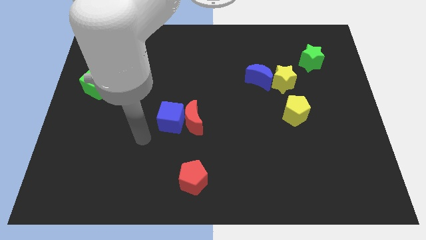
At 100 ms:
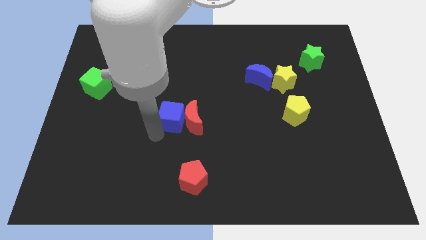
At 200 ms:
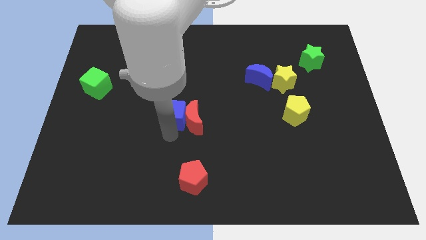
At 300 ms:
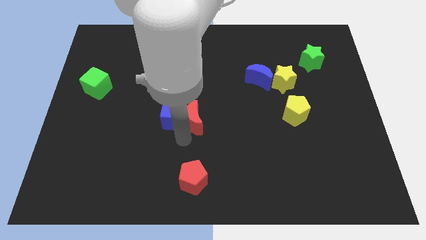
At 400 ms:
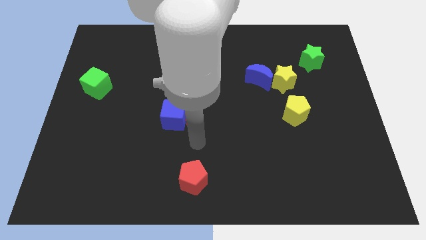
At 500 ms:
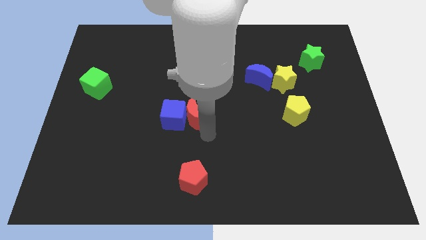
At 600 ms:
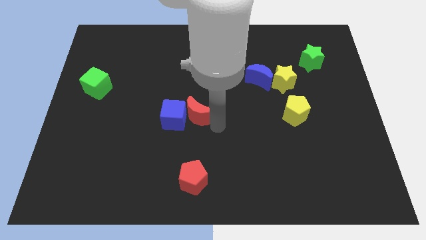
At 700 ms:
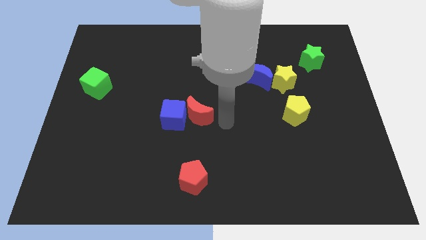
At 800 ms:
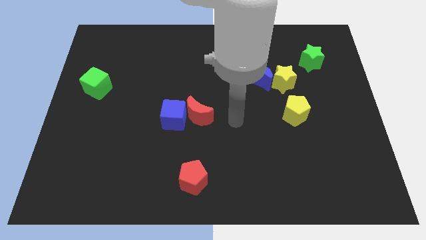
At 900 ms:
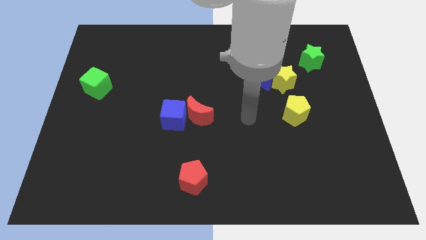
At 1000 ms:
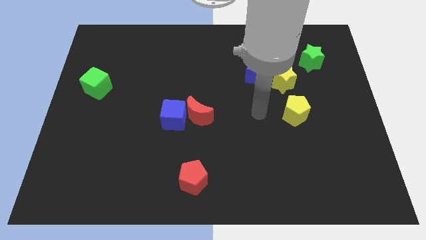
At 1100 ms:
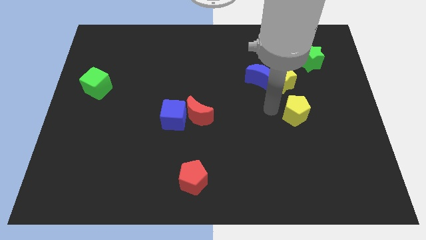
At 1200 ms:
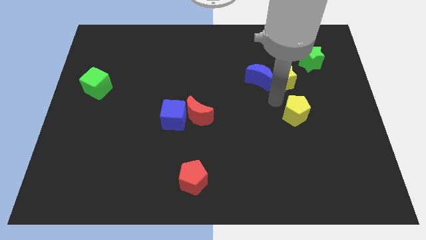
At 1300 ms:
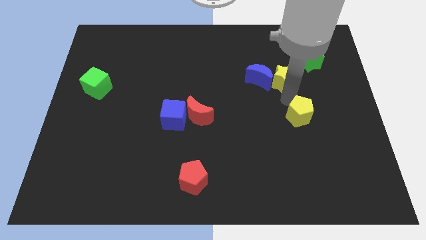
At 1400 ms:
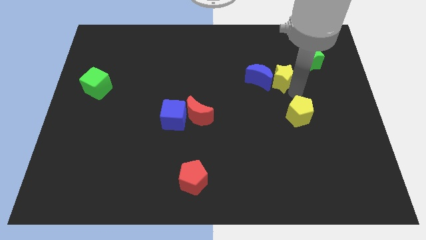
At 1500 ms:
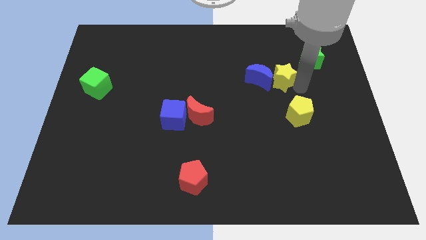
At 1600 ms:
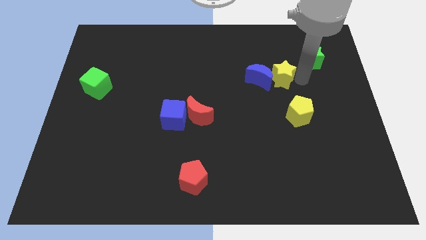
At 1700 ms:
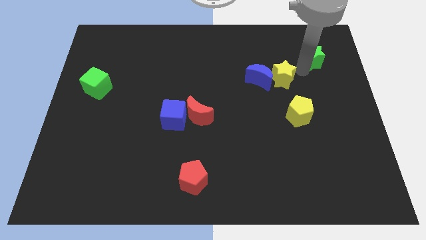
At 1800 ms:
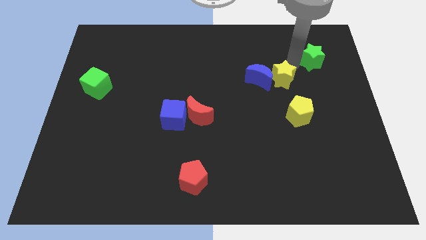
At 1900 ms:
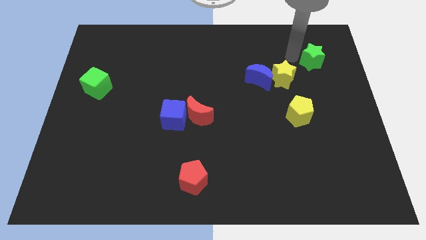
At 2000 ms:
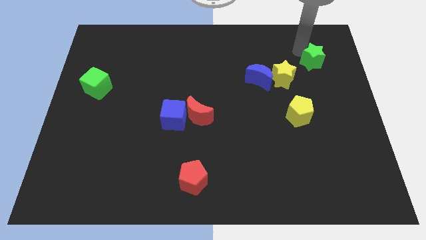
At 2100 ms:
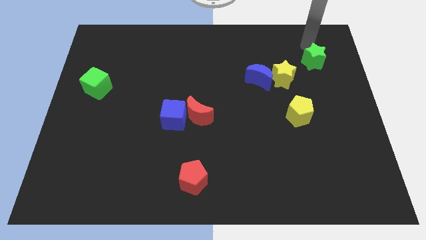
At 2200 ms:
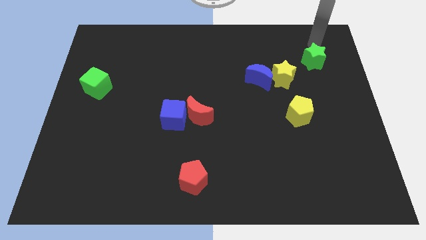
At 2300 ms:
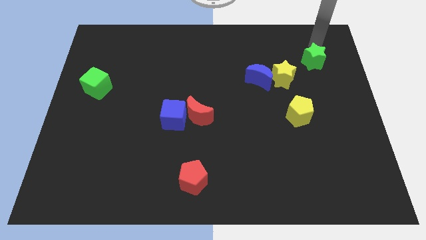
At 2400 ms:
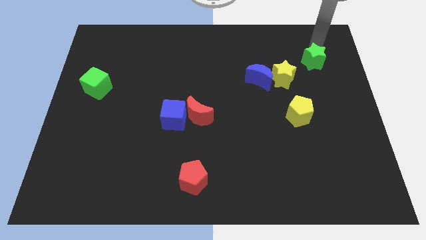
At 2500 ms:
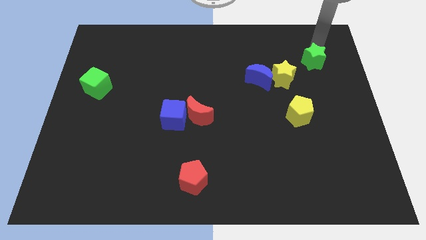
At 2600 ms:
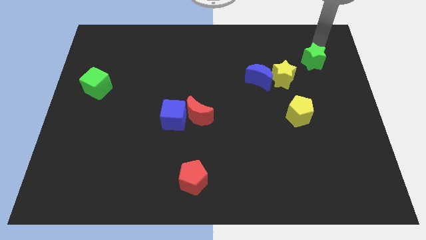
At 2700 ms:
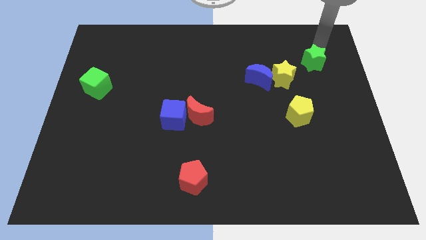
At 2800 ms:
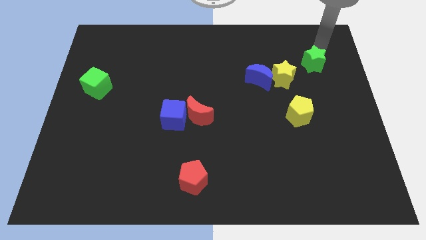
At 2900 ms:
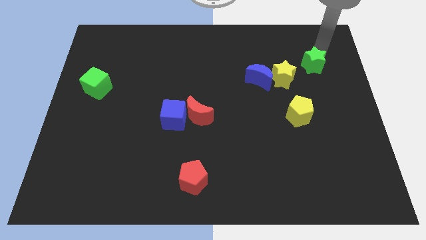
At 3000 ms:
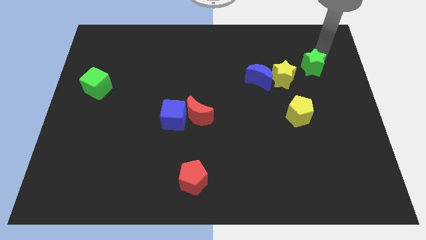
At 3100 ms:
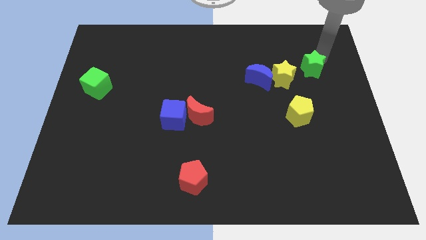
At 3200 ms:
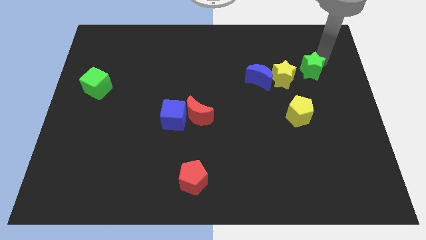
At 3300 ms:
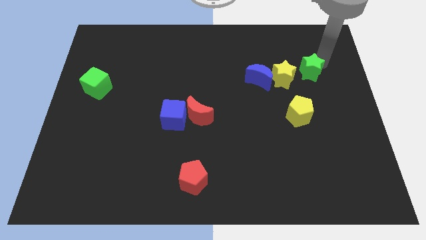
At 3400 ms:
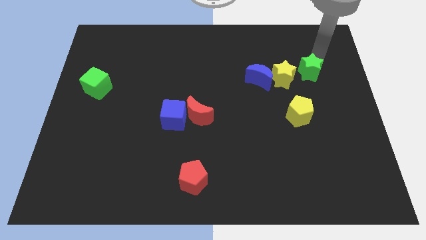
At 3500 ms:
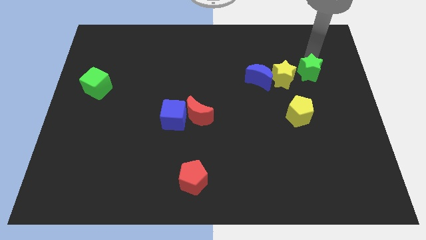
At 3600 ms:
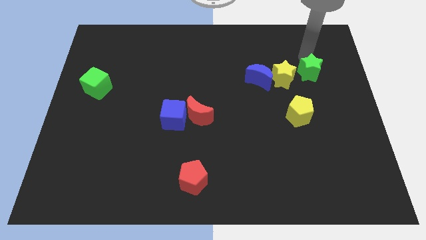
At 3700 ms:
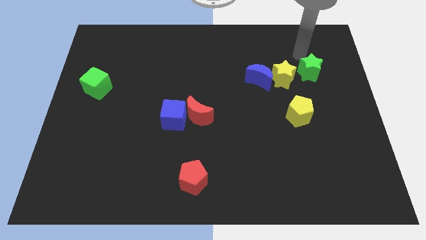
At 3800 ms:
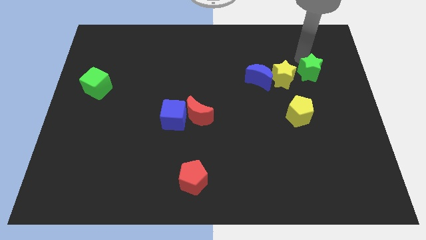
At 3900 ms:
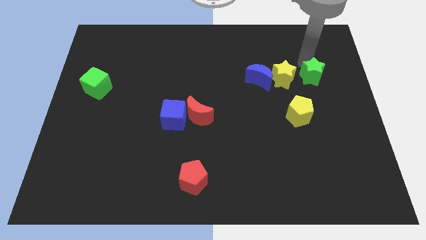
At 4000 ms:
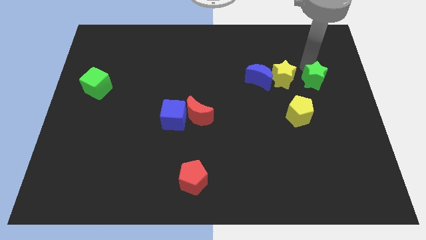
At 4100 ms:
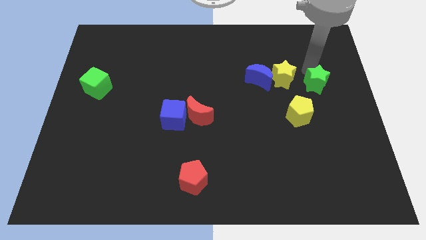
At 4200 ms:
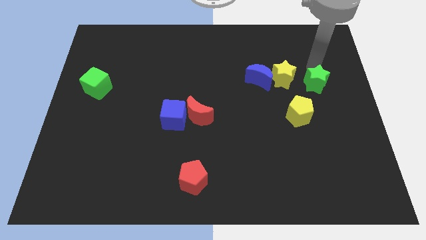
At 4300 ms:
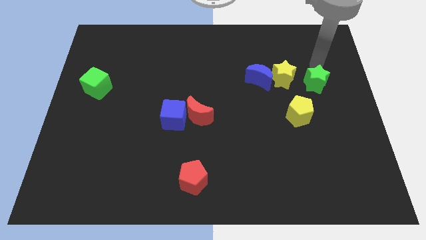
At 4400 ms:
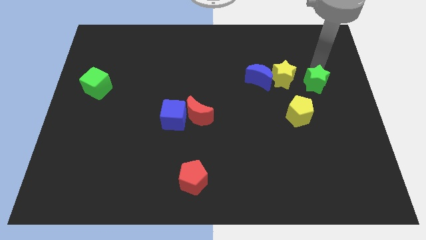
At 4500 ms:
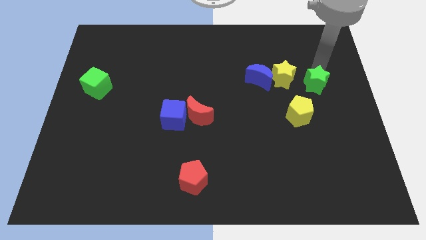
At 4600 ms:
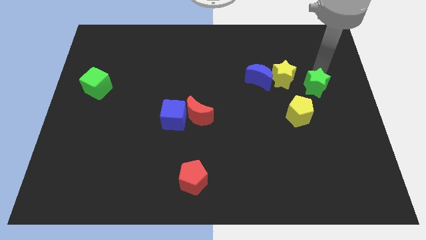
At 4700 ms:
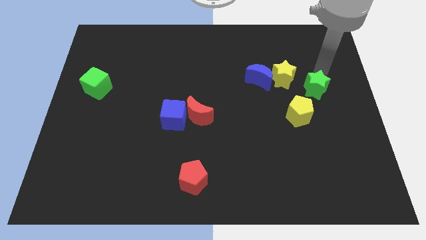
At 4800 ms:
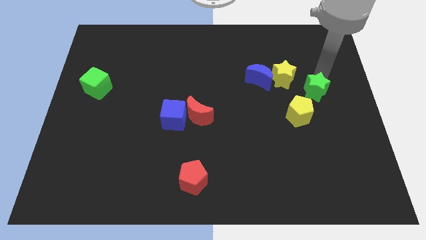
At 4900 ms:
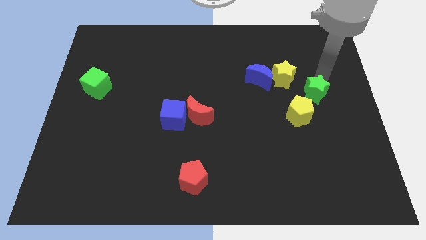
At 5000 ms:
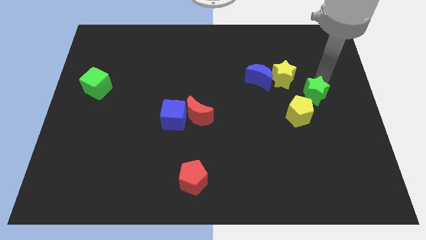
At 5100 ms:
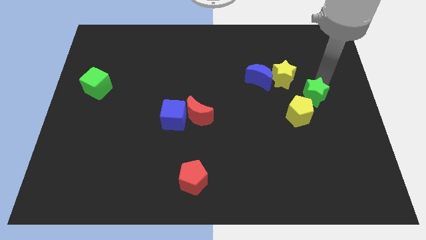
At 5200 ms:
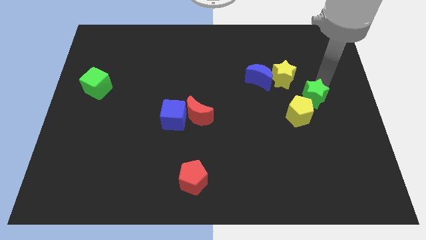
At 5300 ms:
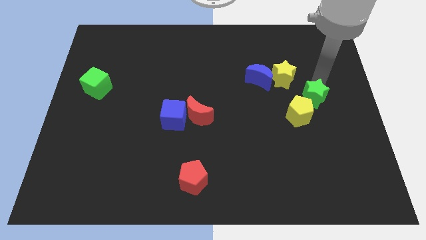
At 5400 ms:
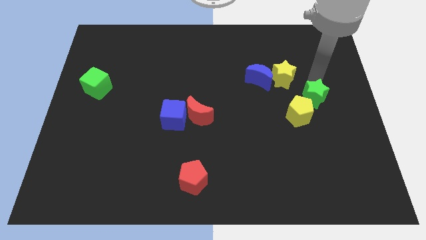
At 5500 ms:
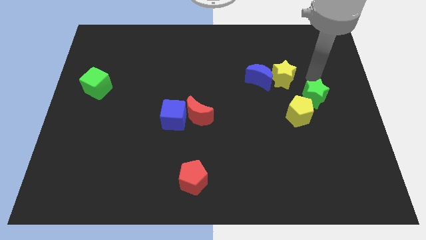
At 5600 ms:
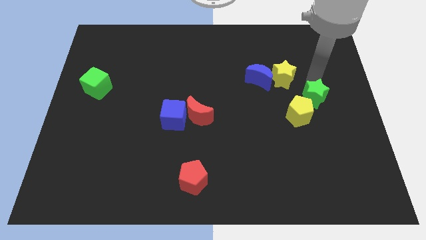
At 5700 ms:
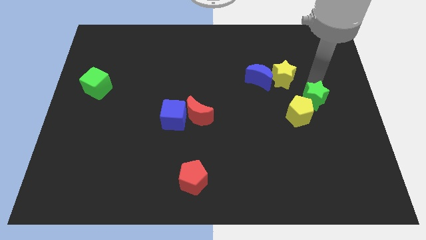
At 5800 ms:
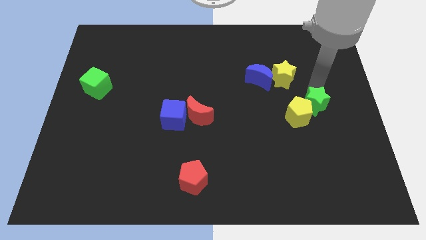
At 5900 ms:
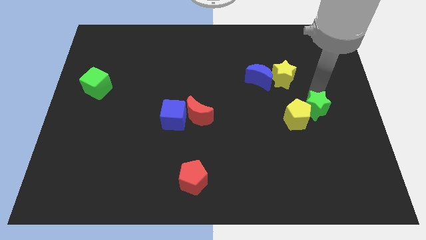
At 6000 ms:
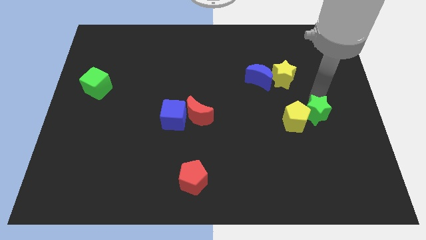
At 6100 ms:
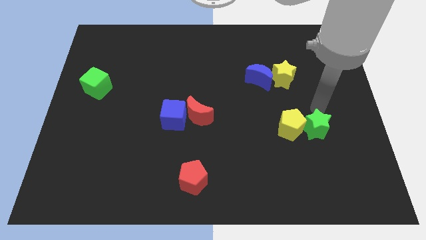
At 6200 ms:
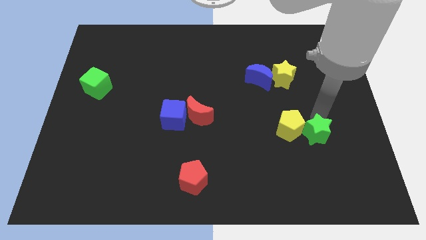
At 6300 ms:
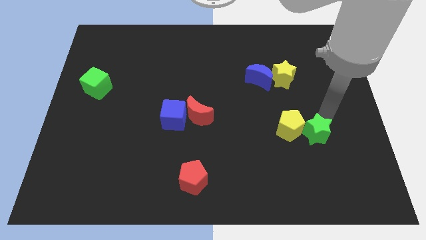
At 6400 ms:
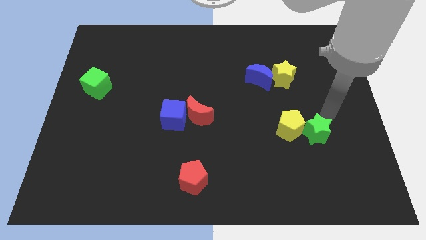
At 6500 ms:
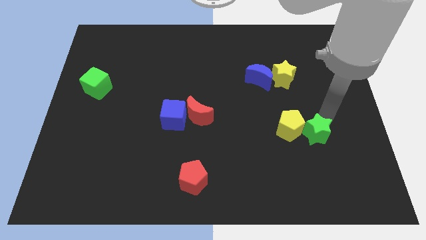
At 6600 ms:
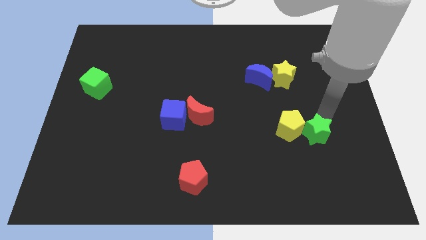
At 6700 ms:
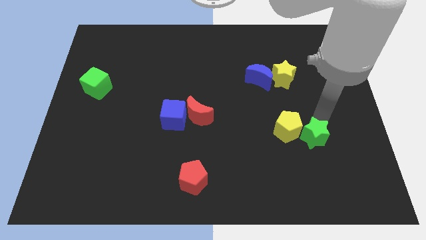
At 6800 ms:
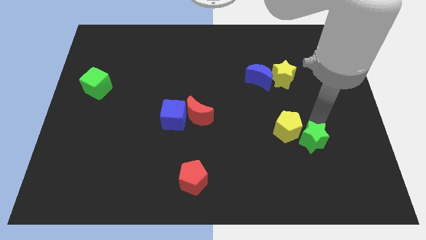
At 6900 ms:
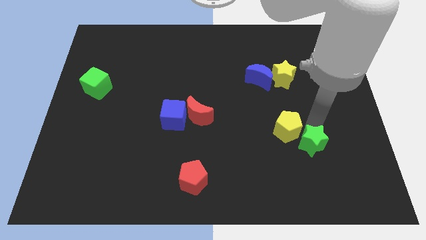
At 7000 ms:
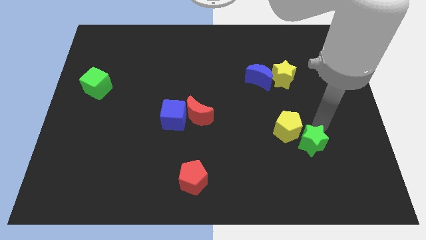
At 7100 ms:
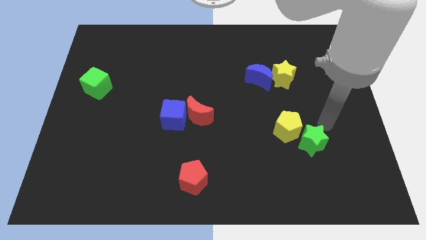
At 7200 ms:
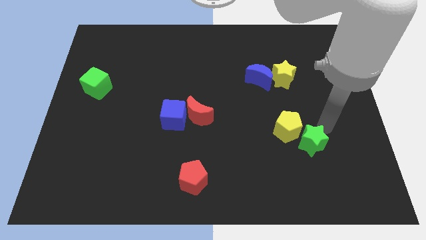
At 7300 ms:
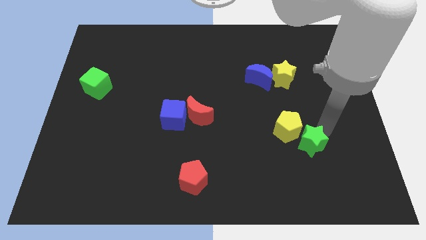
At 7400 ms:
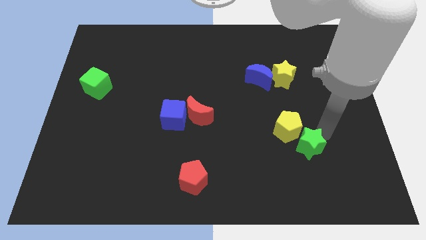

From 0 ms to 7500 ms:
move the green star to the bottom side of the yellow pentagon
